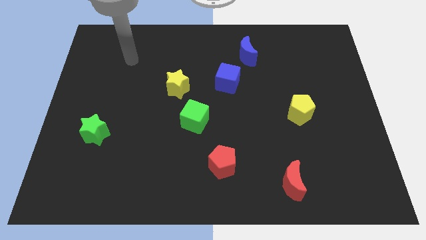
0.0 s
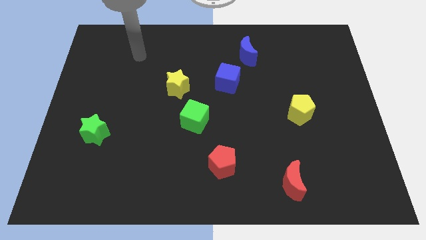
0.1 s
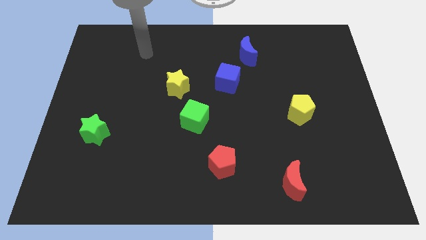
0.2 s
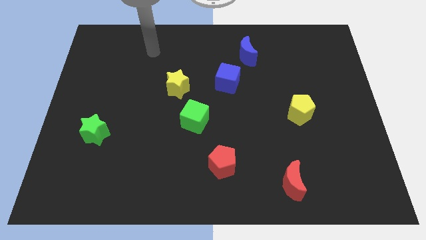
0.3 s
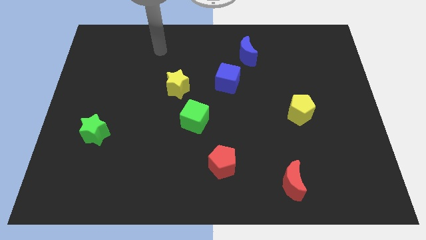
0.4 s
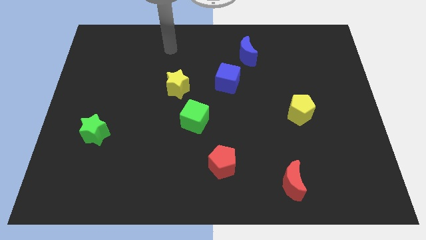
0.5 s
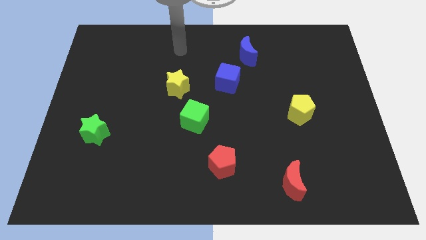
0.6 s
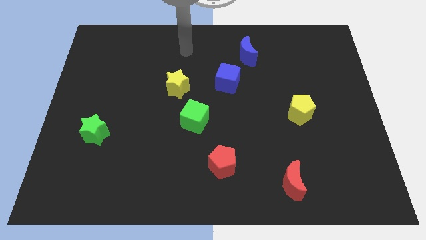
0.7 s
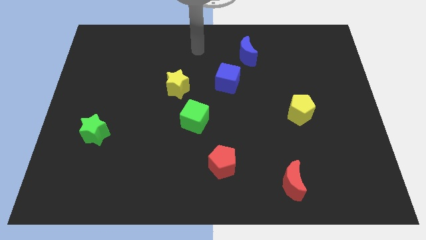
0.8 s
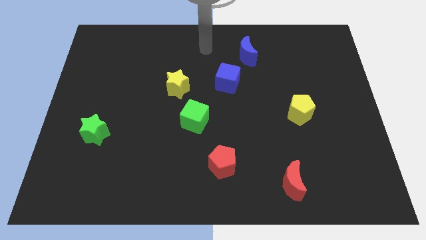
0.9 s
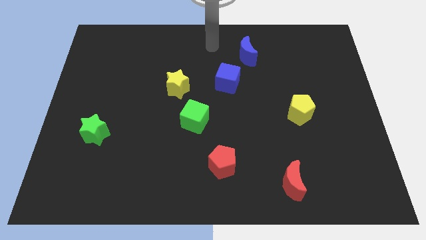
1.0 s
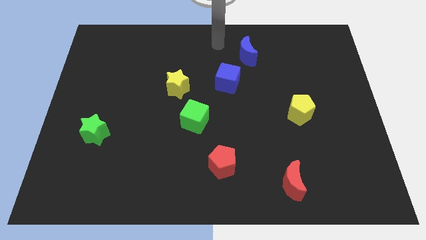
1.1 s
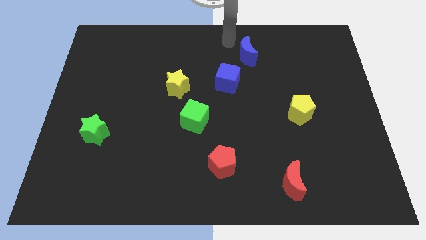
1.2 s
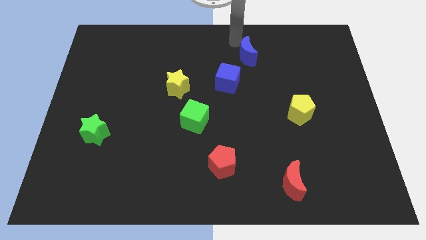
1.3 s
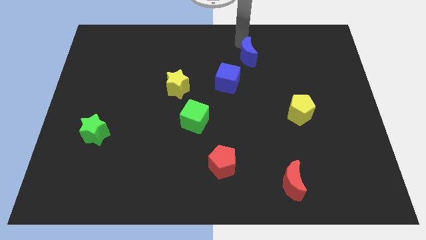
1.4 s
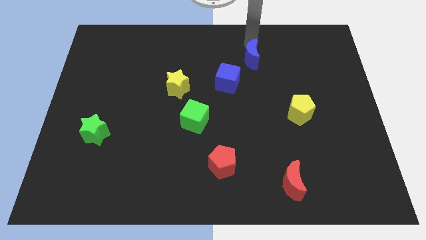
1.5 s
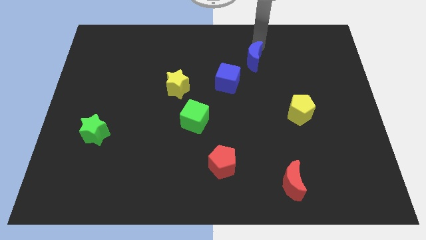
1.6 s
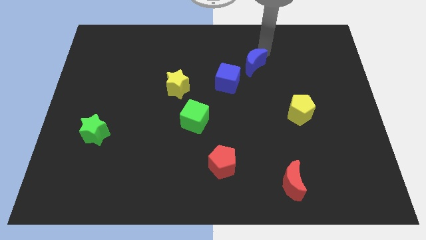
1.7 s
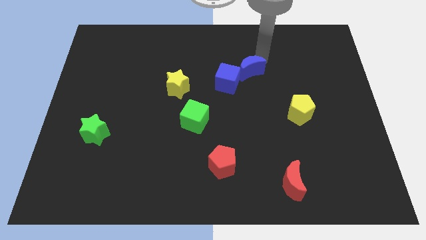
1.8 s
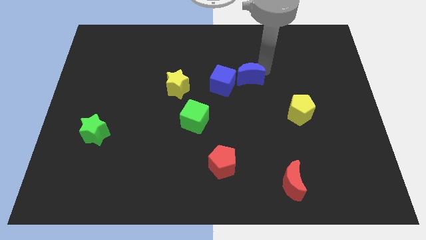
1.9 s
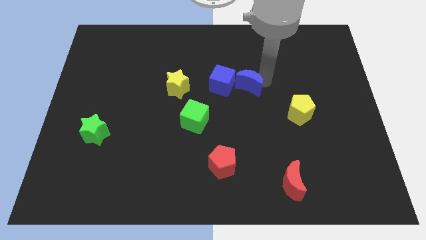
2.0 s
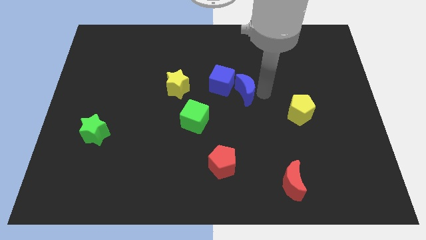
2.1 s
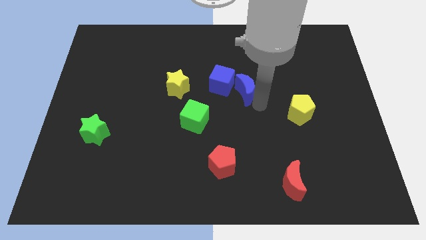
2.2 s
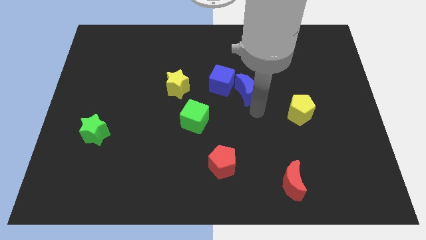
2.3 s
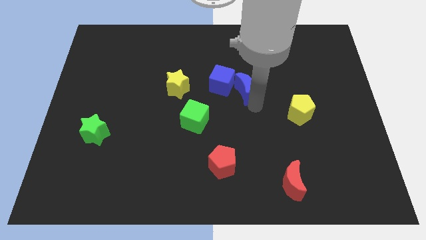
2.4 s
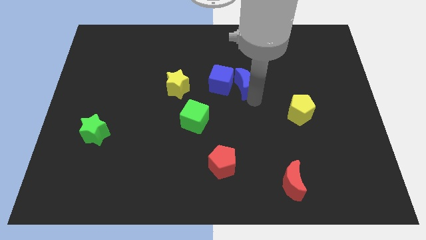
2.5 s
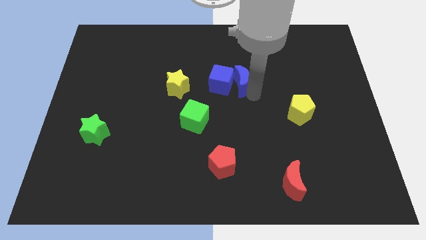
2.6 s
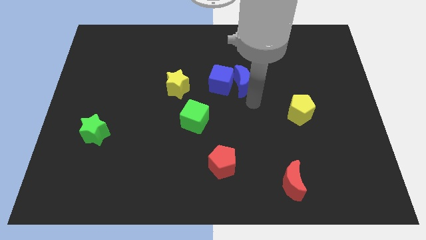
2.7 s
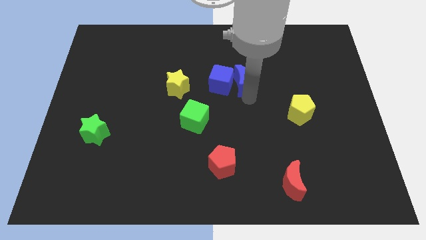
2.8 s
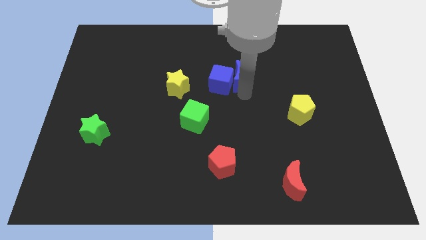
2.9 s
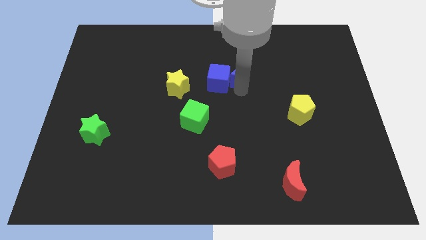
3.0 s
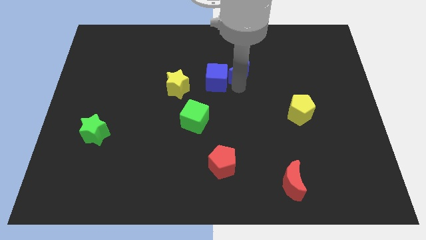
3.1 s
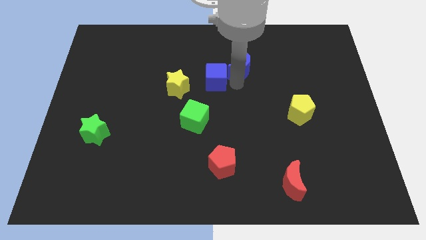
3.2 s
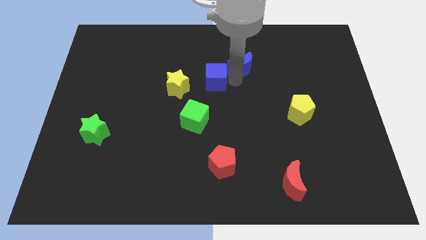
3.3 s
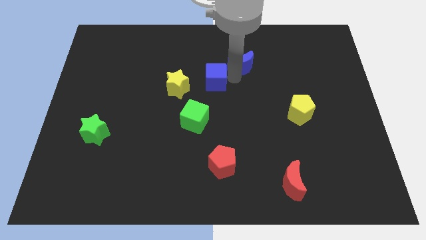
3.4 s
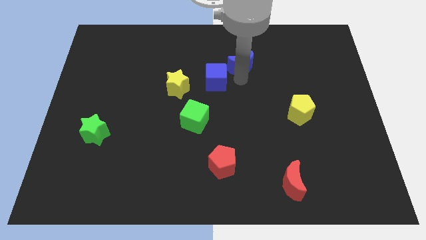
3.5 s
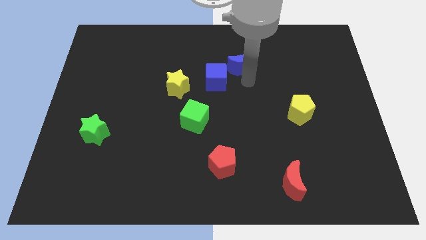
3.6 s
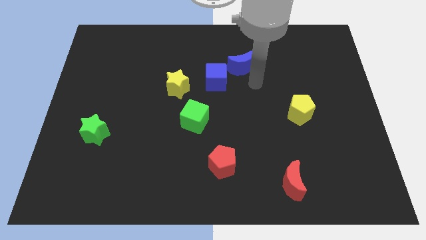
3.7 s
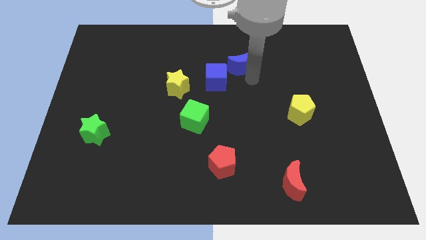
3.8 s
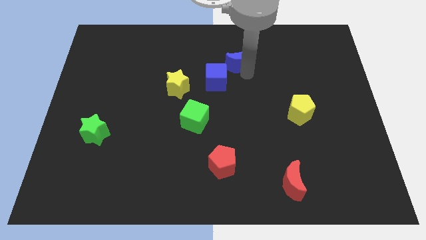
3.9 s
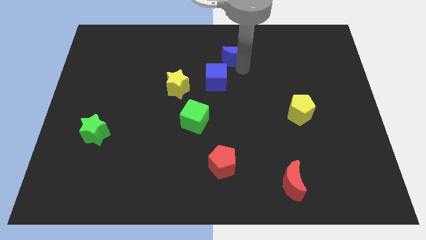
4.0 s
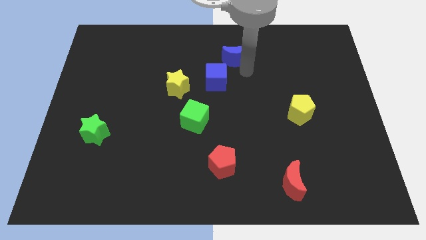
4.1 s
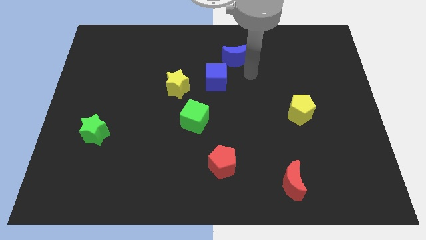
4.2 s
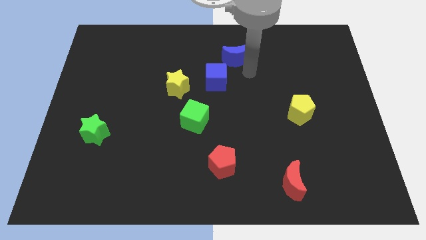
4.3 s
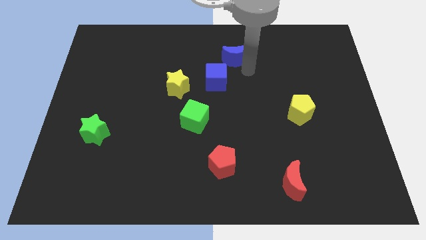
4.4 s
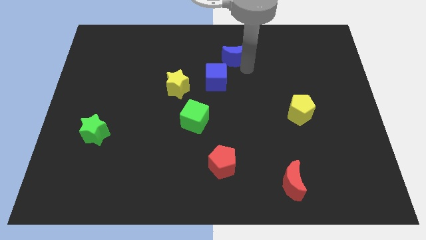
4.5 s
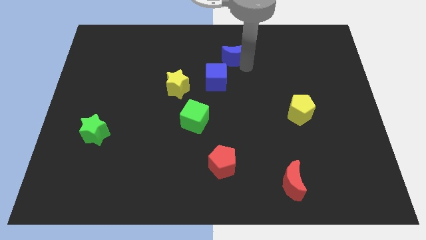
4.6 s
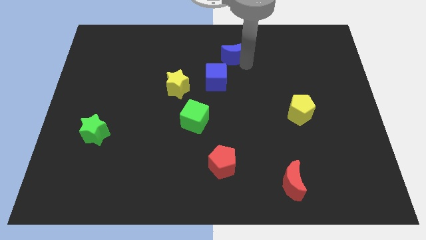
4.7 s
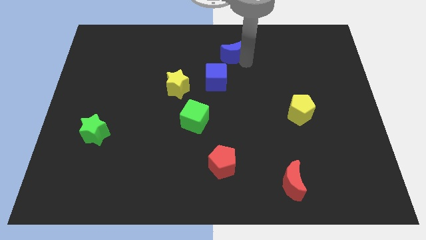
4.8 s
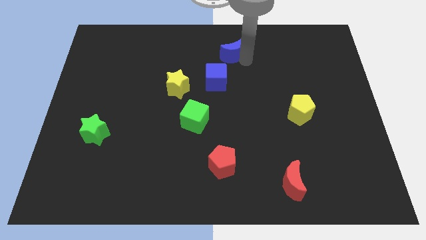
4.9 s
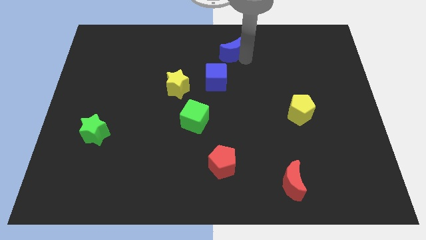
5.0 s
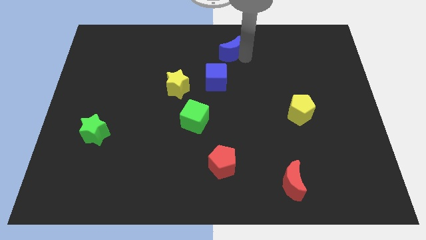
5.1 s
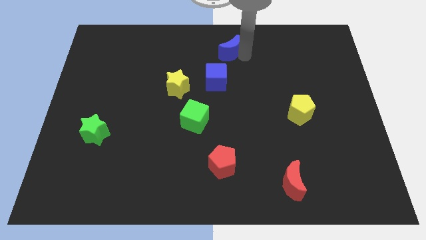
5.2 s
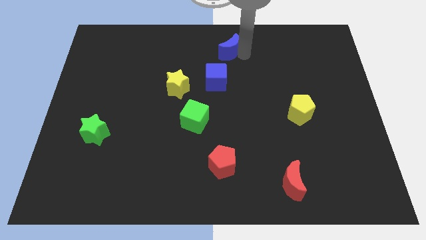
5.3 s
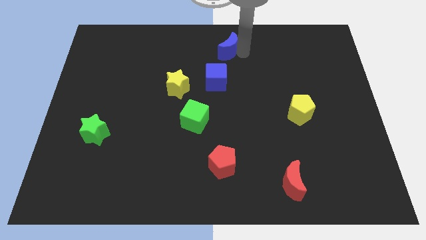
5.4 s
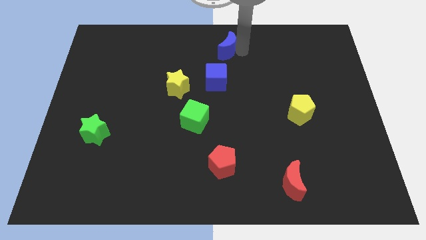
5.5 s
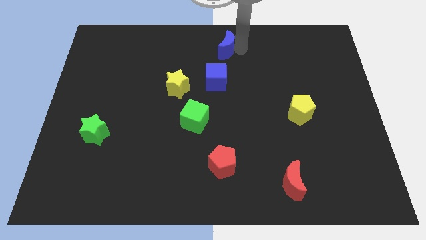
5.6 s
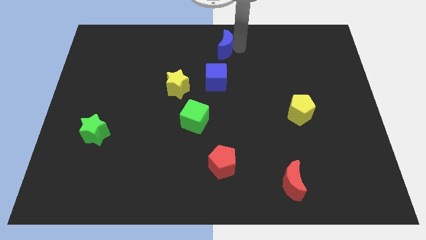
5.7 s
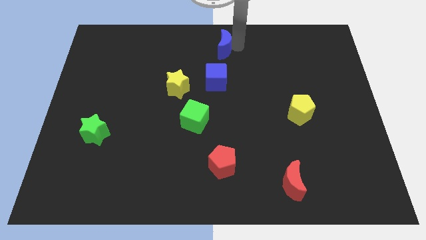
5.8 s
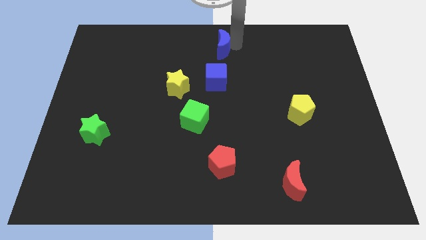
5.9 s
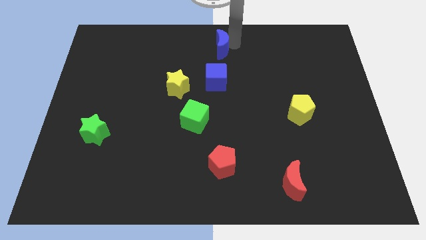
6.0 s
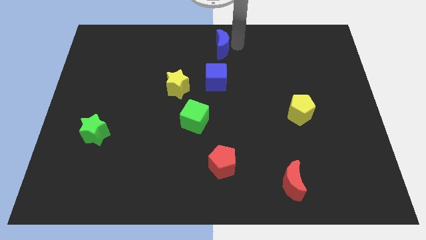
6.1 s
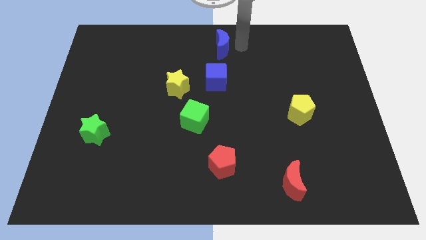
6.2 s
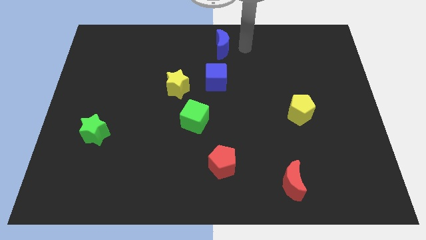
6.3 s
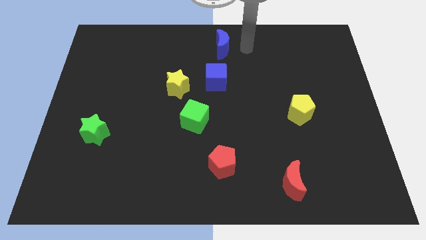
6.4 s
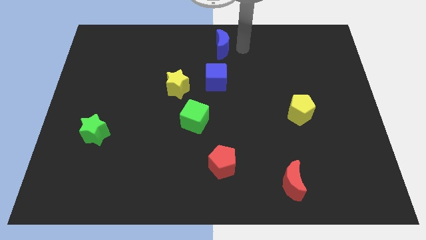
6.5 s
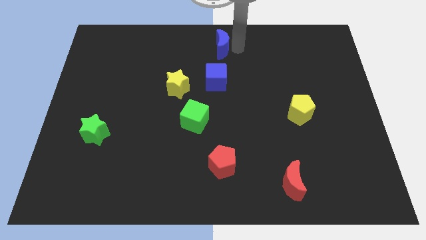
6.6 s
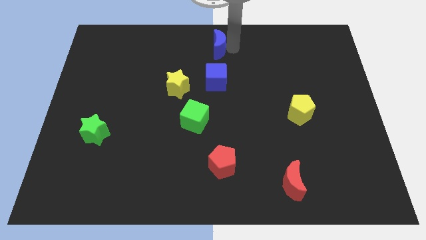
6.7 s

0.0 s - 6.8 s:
slightly push the blue moon left

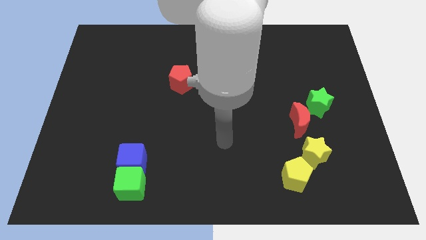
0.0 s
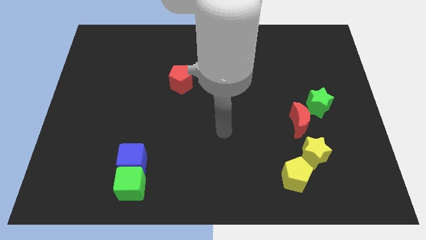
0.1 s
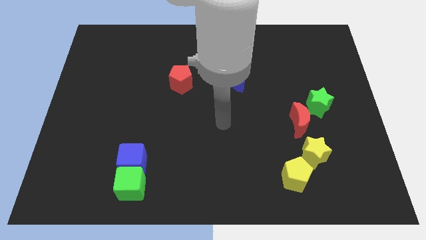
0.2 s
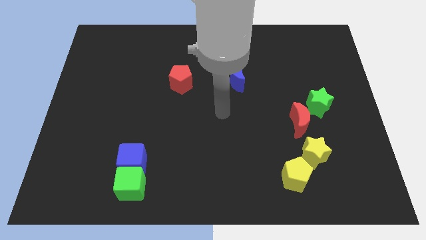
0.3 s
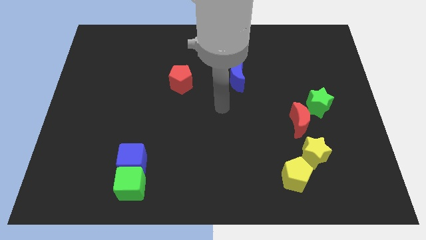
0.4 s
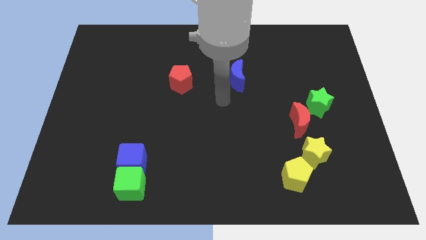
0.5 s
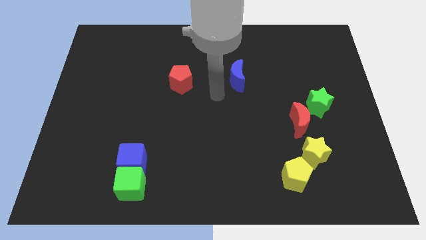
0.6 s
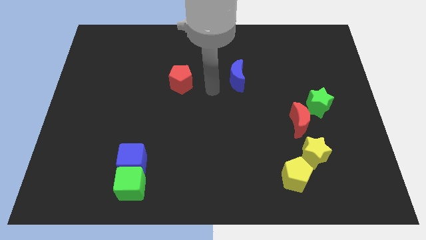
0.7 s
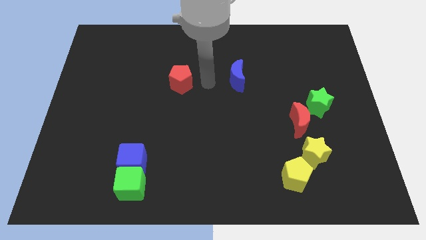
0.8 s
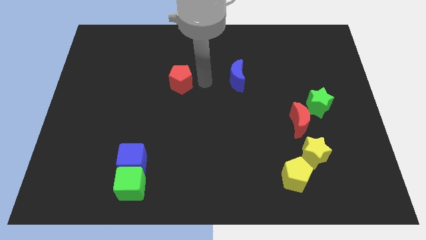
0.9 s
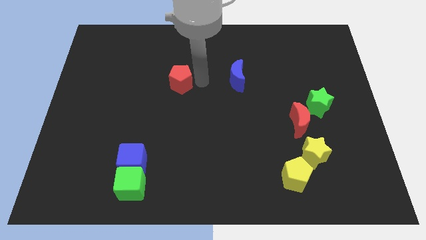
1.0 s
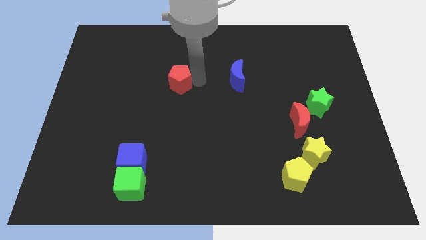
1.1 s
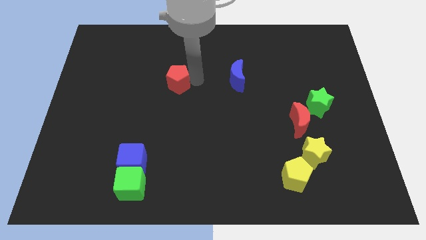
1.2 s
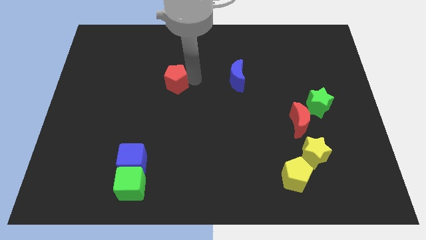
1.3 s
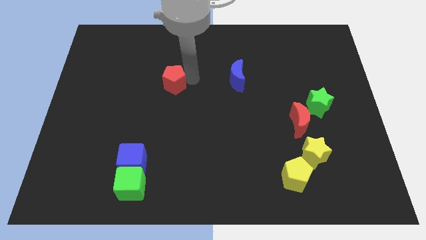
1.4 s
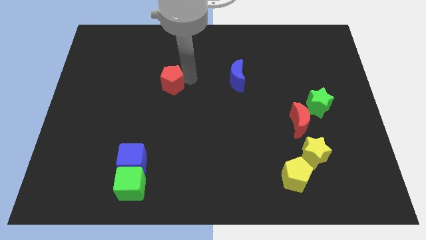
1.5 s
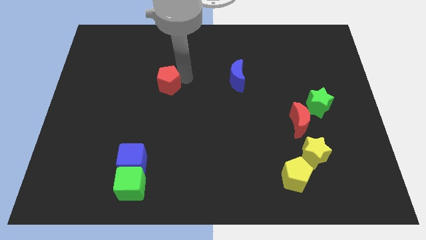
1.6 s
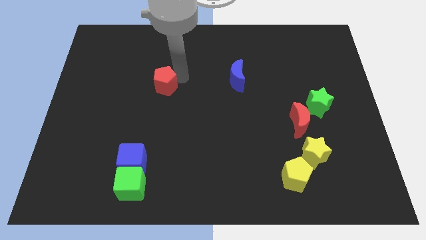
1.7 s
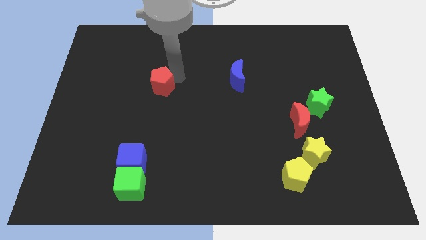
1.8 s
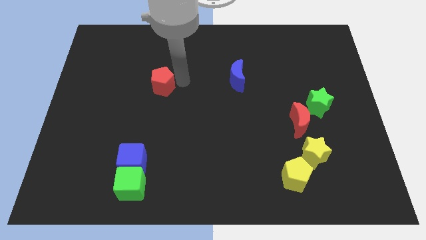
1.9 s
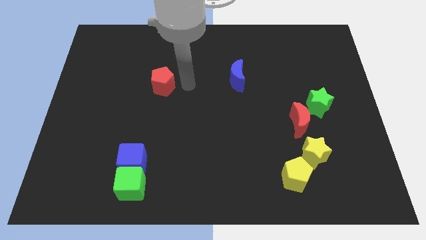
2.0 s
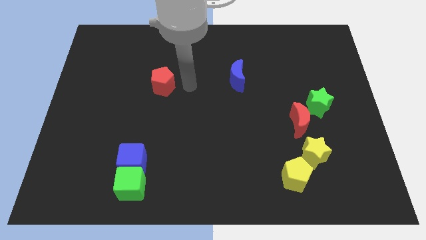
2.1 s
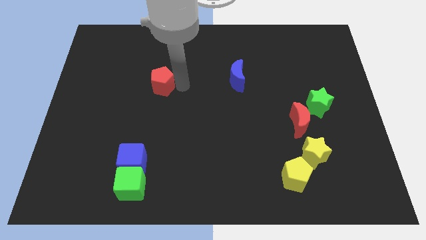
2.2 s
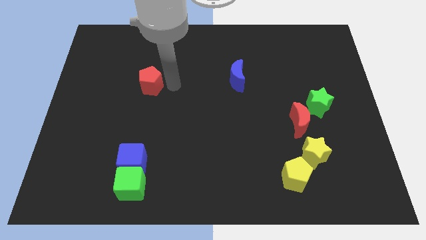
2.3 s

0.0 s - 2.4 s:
slightly move the red pentagon to the left
